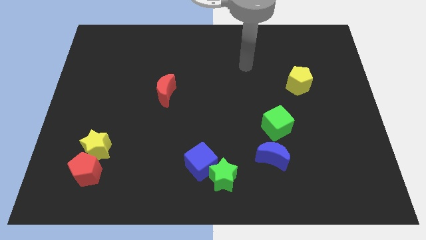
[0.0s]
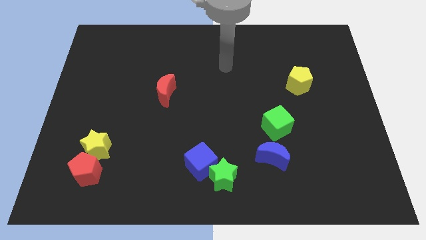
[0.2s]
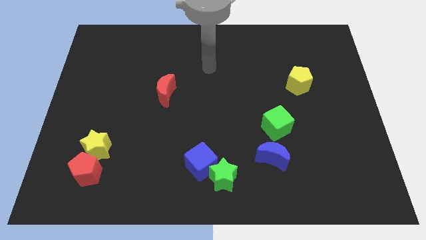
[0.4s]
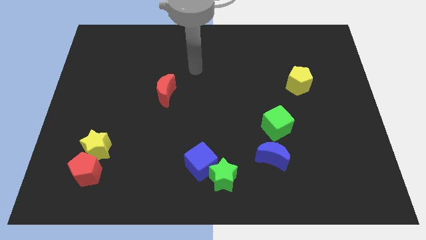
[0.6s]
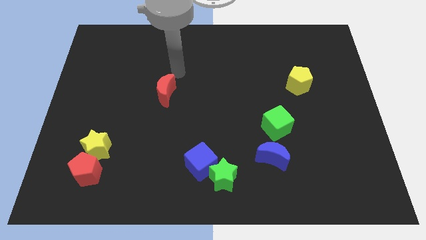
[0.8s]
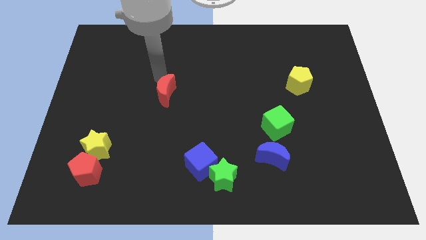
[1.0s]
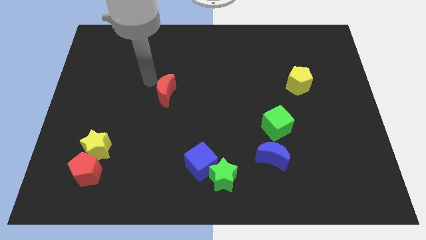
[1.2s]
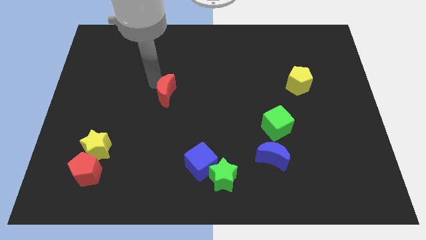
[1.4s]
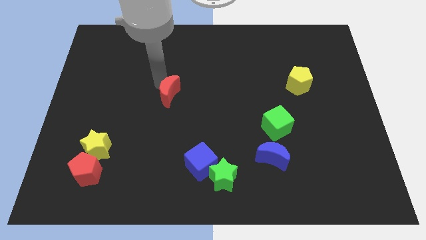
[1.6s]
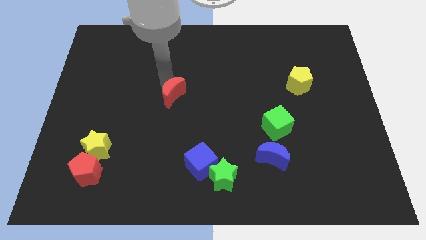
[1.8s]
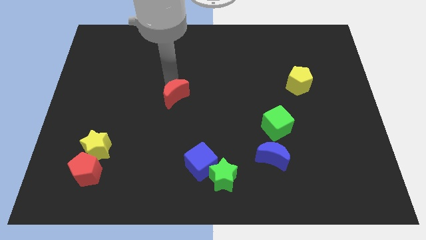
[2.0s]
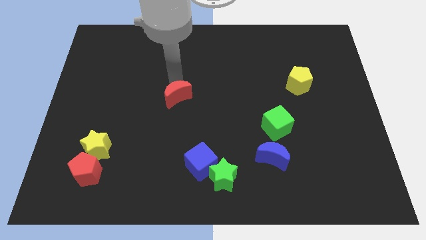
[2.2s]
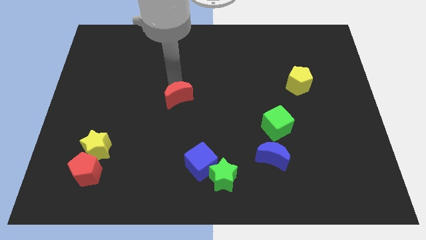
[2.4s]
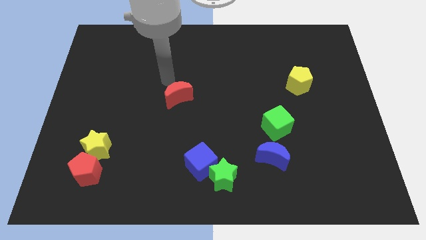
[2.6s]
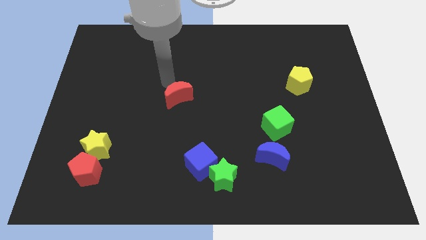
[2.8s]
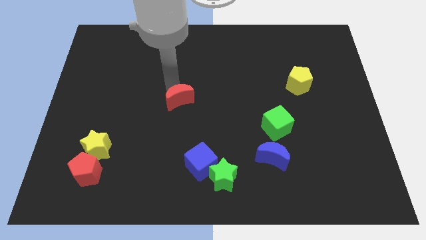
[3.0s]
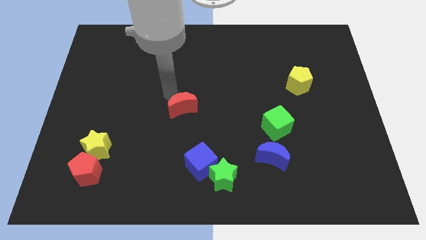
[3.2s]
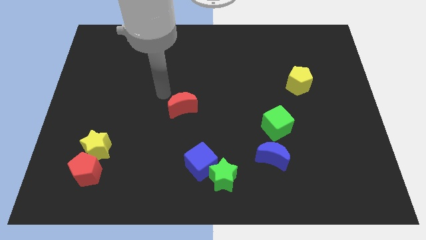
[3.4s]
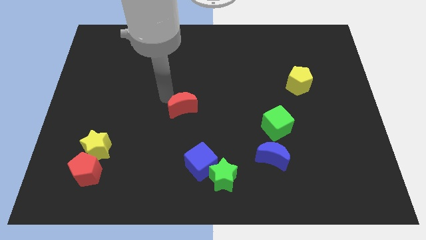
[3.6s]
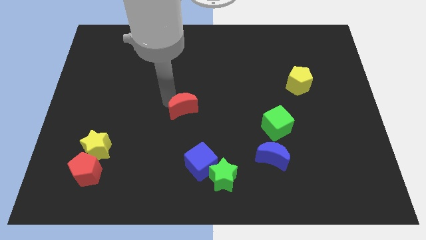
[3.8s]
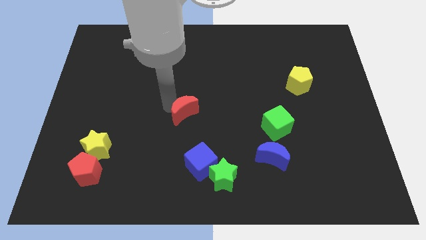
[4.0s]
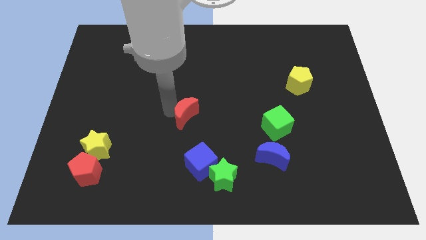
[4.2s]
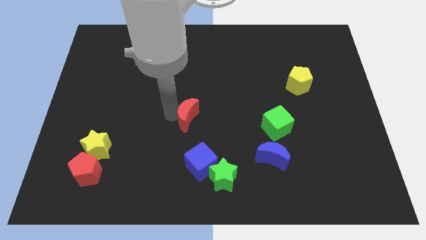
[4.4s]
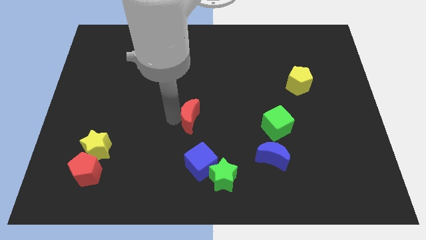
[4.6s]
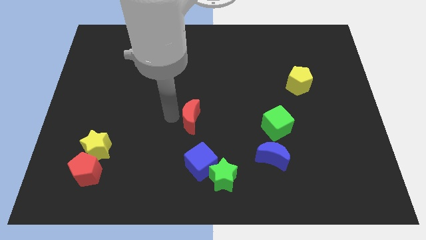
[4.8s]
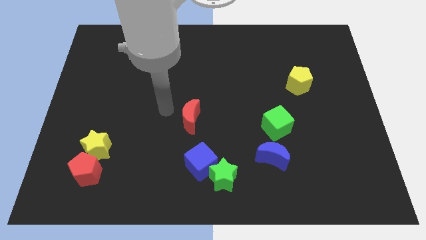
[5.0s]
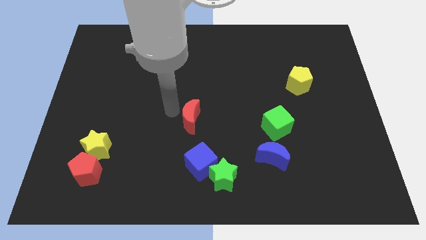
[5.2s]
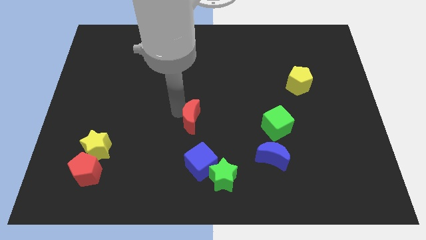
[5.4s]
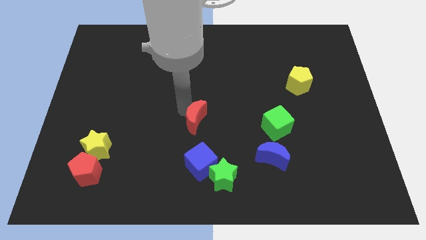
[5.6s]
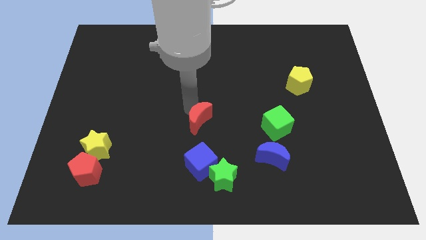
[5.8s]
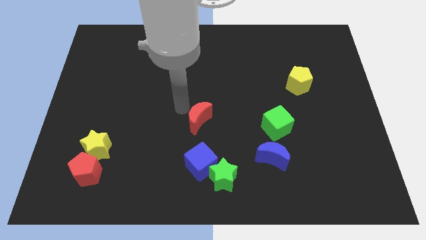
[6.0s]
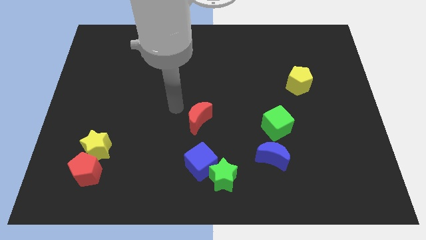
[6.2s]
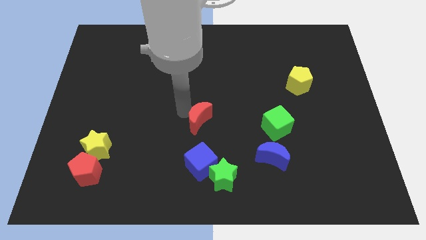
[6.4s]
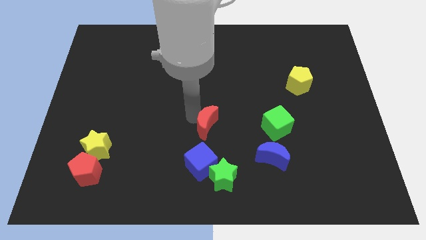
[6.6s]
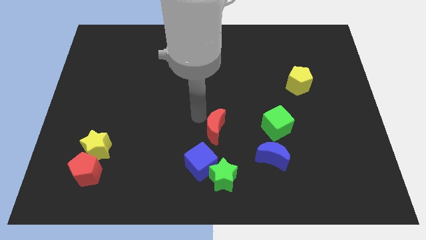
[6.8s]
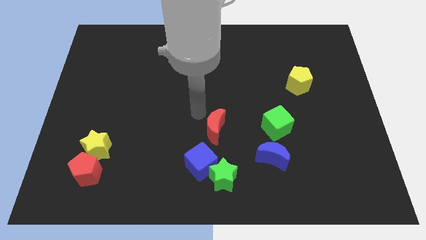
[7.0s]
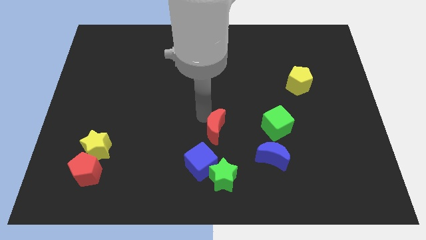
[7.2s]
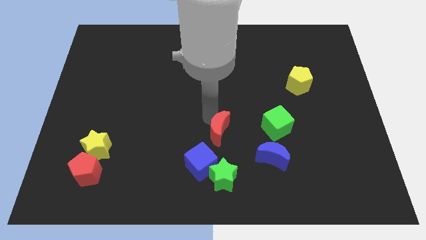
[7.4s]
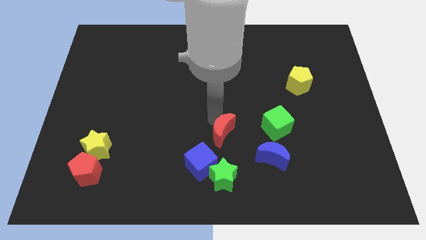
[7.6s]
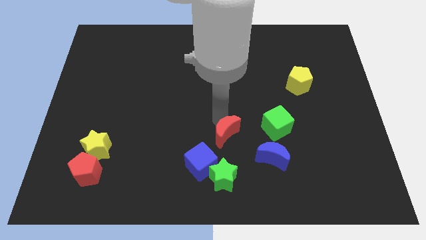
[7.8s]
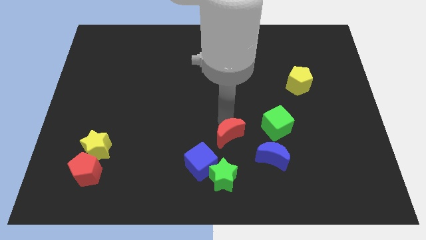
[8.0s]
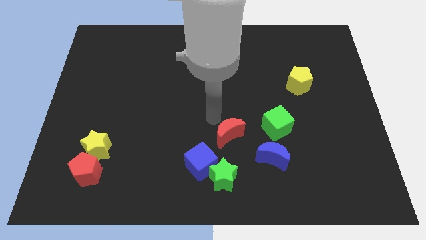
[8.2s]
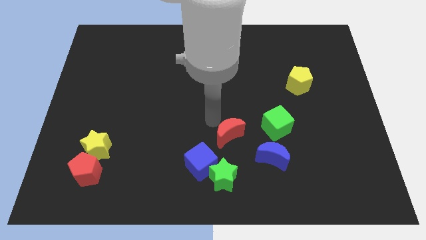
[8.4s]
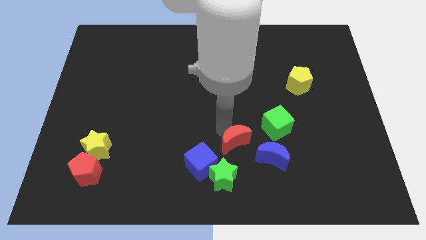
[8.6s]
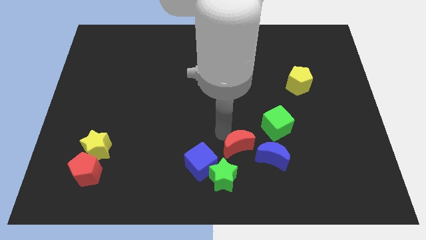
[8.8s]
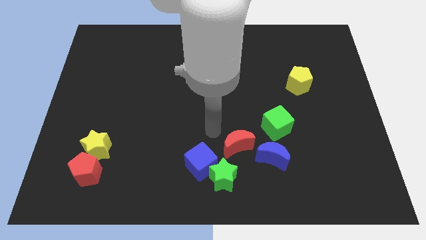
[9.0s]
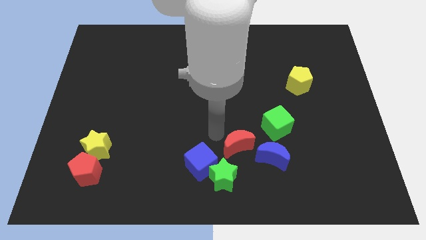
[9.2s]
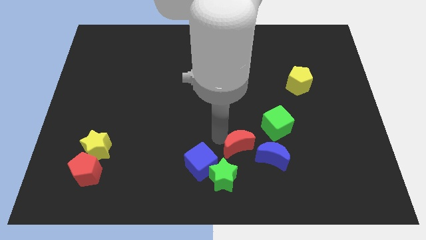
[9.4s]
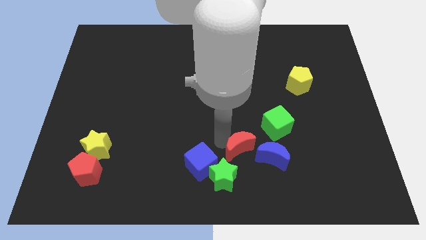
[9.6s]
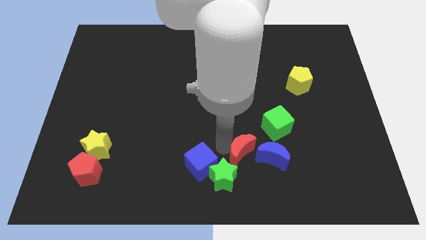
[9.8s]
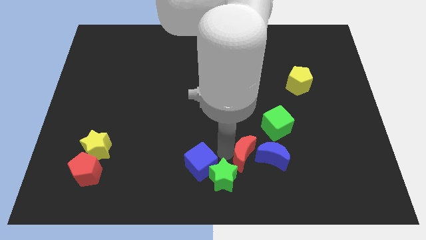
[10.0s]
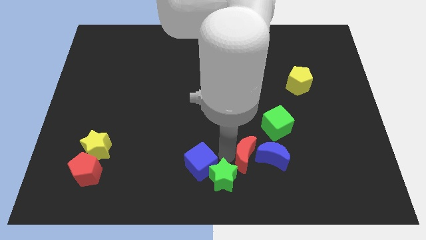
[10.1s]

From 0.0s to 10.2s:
move the red moon to the blue moon

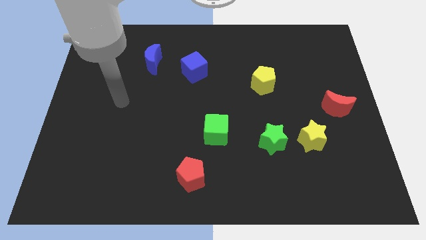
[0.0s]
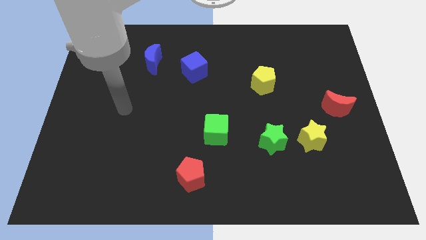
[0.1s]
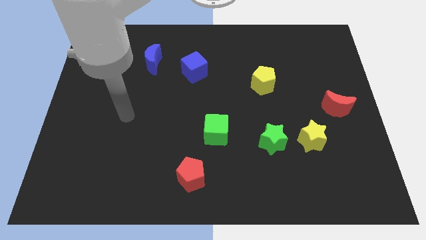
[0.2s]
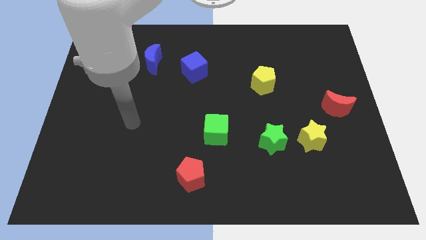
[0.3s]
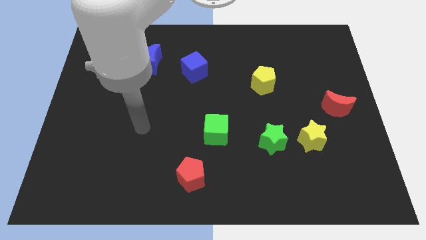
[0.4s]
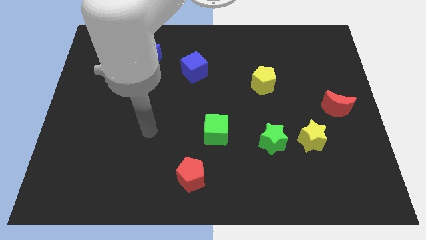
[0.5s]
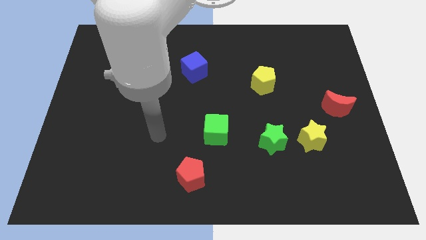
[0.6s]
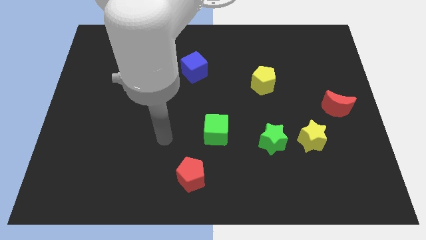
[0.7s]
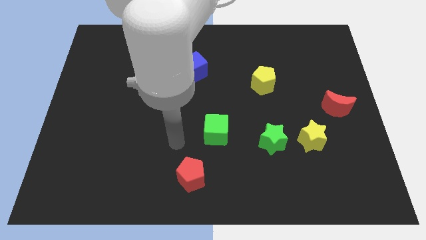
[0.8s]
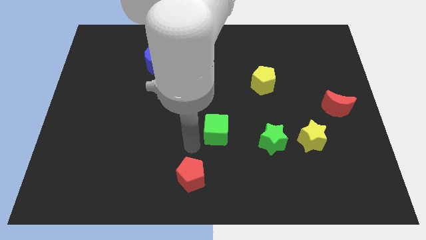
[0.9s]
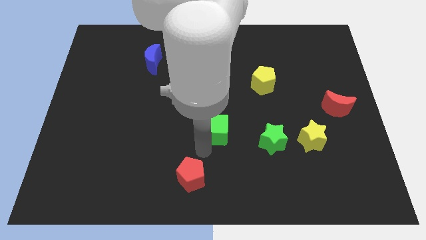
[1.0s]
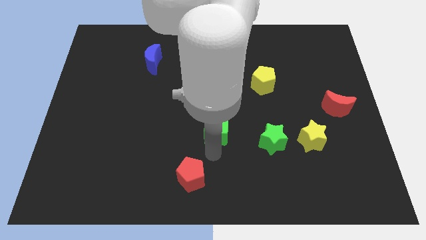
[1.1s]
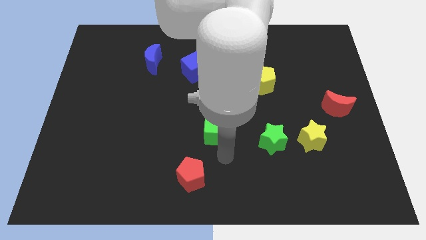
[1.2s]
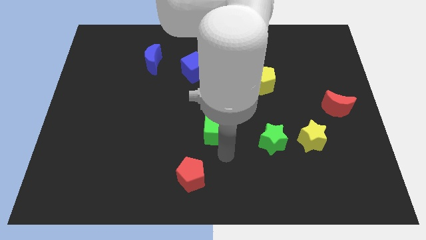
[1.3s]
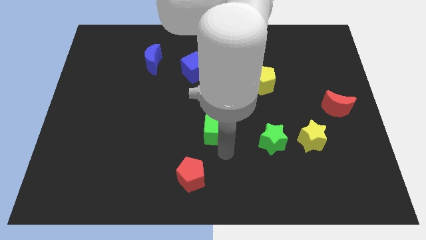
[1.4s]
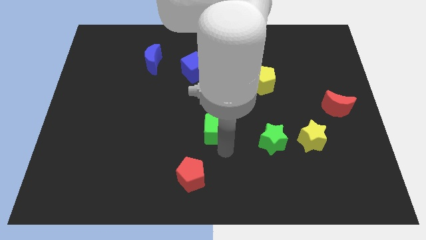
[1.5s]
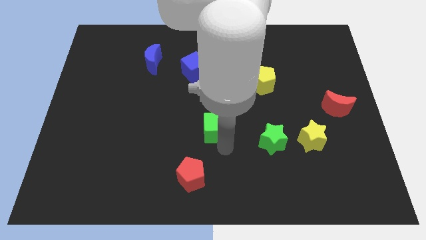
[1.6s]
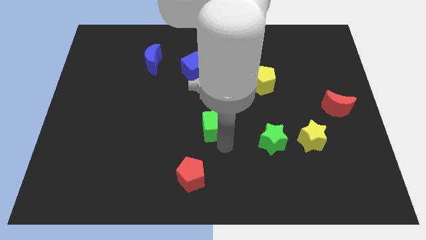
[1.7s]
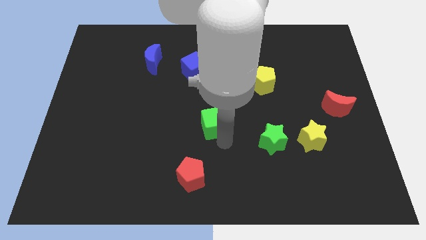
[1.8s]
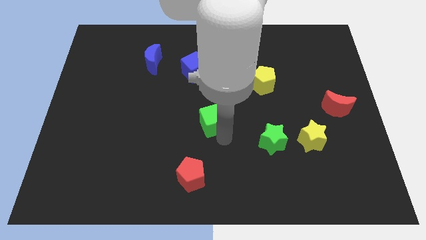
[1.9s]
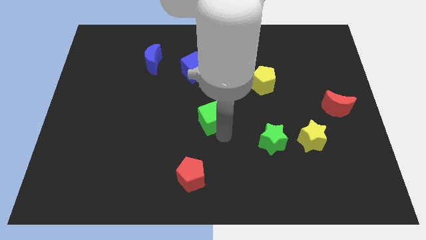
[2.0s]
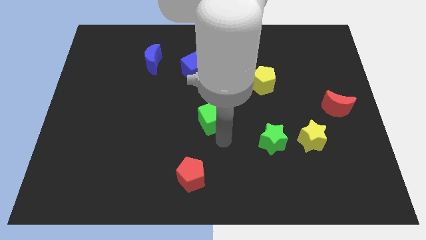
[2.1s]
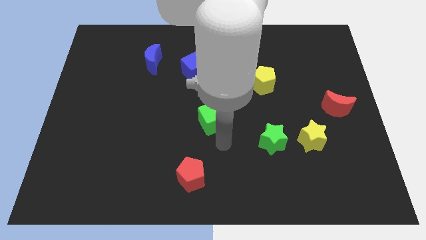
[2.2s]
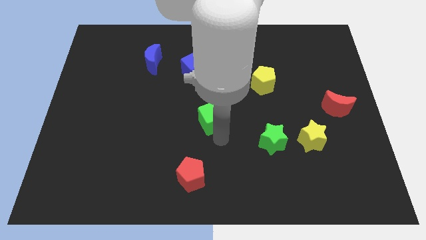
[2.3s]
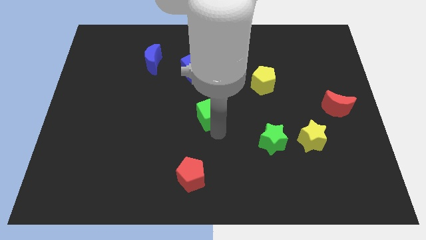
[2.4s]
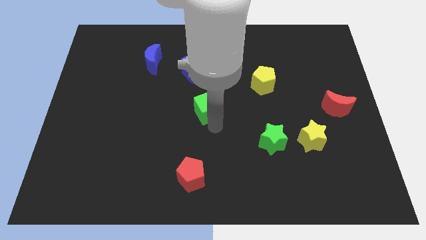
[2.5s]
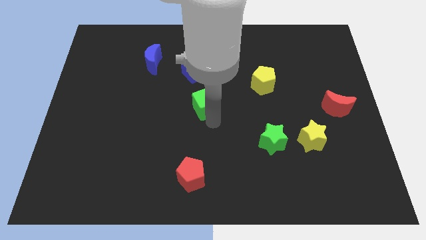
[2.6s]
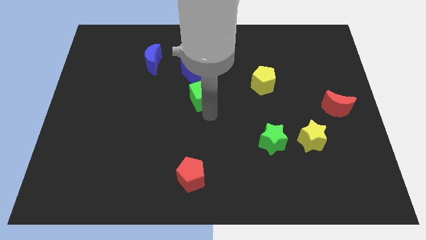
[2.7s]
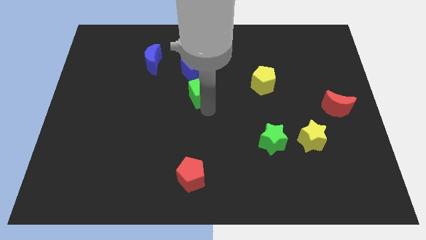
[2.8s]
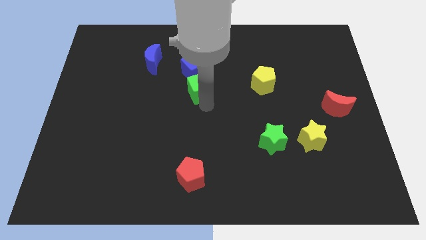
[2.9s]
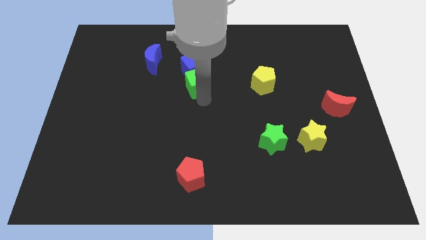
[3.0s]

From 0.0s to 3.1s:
move the green cube to the blue cube
